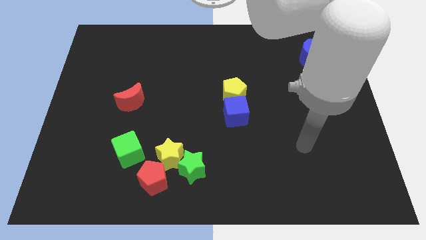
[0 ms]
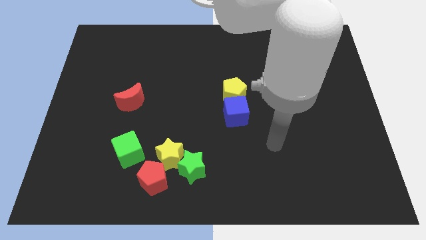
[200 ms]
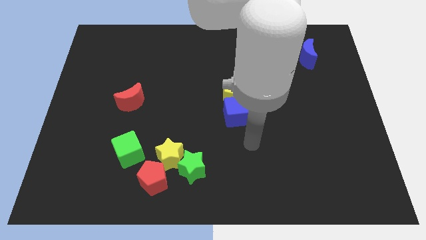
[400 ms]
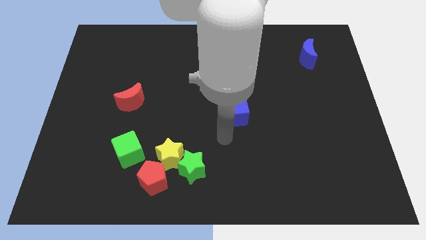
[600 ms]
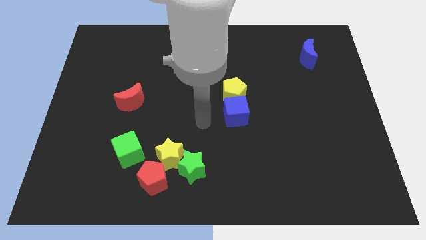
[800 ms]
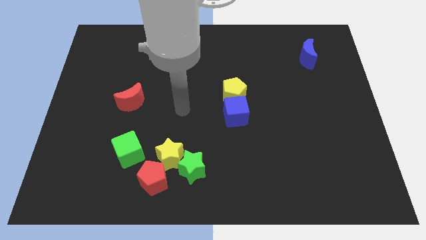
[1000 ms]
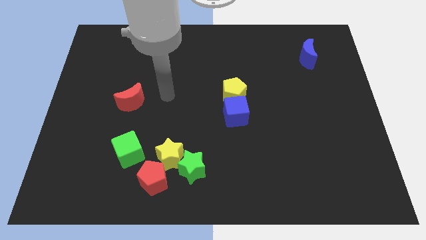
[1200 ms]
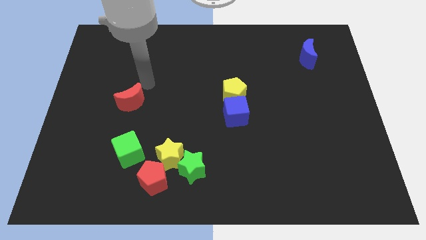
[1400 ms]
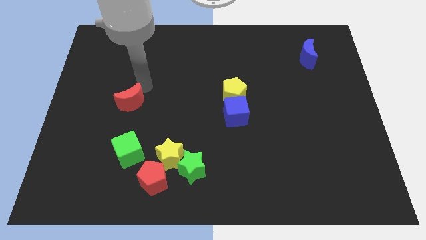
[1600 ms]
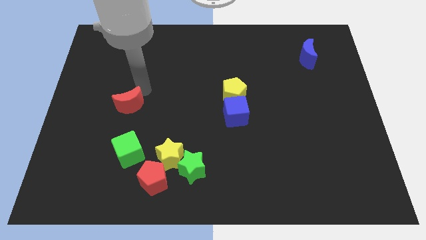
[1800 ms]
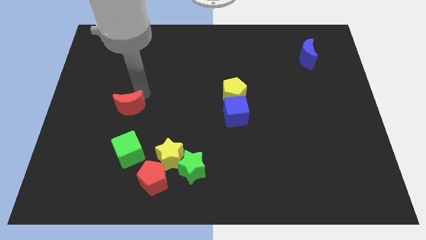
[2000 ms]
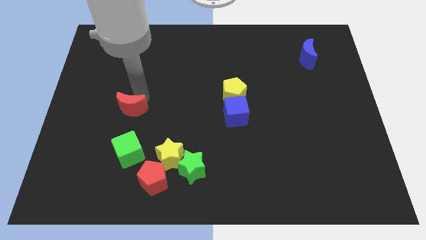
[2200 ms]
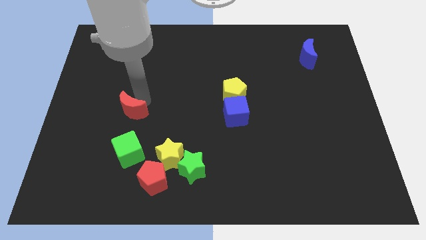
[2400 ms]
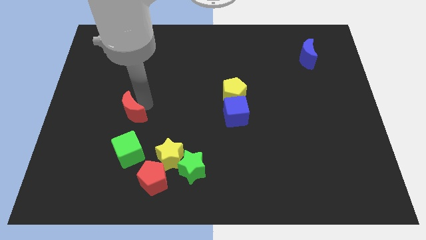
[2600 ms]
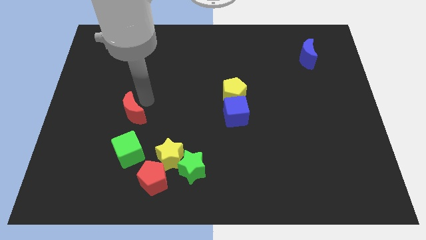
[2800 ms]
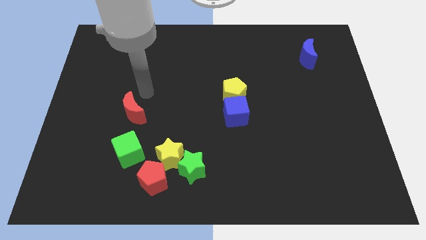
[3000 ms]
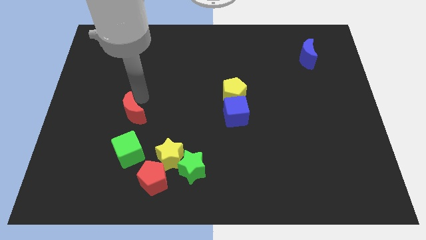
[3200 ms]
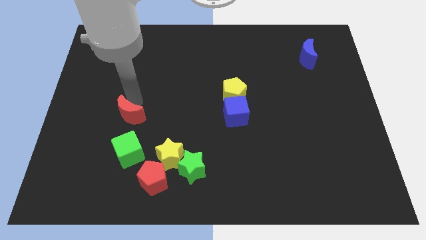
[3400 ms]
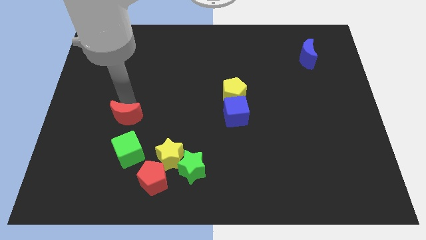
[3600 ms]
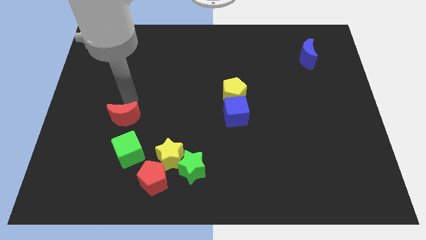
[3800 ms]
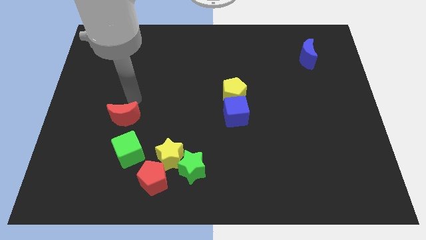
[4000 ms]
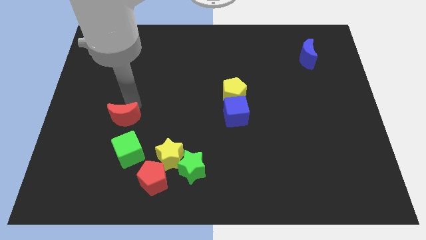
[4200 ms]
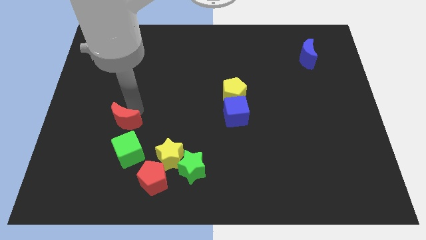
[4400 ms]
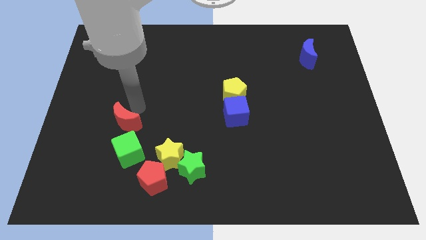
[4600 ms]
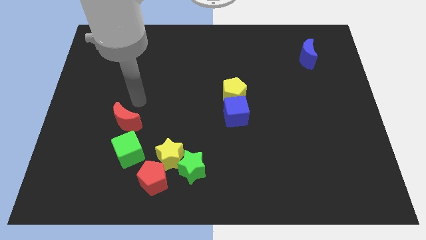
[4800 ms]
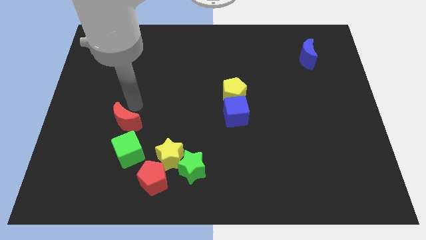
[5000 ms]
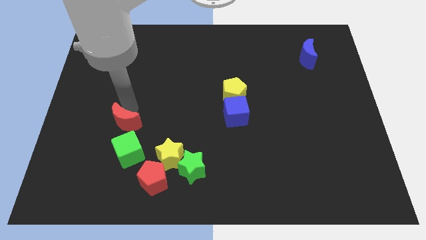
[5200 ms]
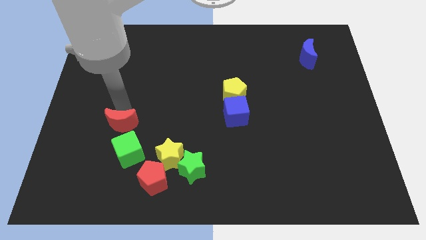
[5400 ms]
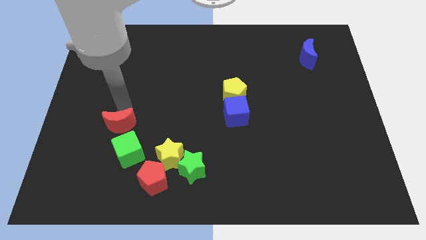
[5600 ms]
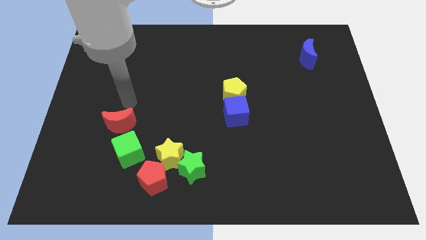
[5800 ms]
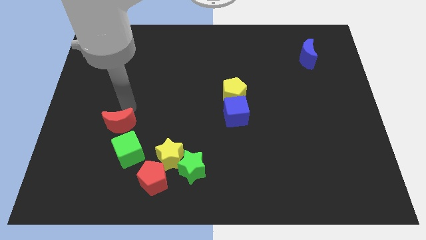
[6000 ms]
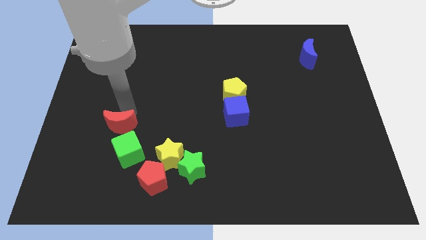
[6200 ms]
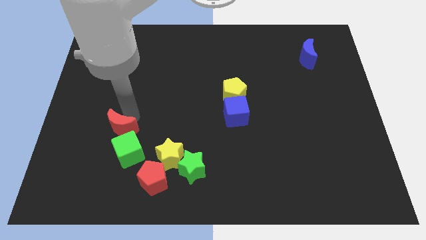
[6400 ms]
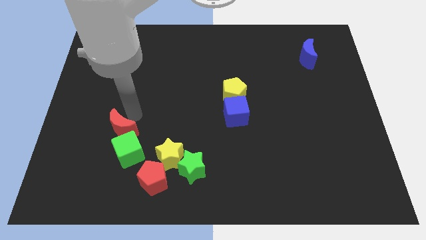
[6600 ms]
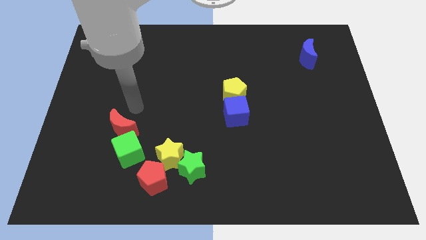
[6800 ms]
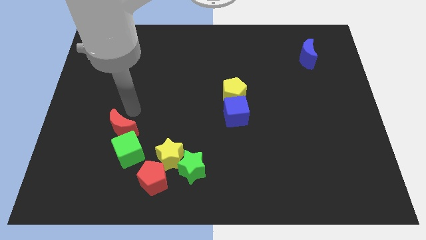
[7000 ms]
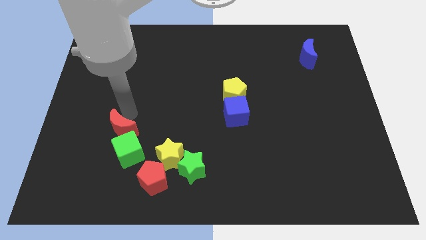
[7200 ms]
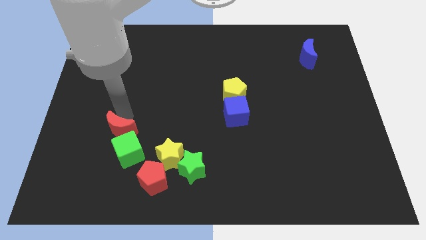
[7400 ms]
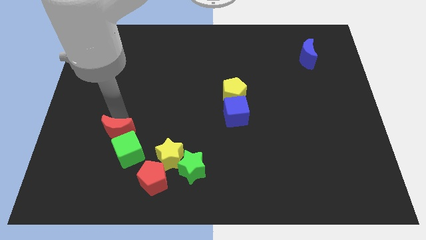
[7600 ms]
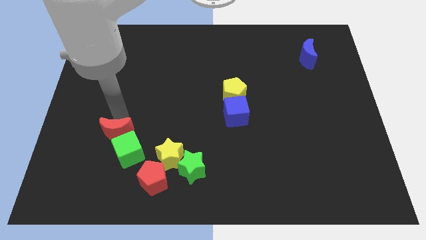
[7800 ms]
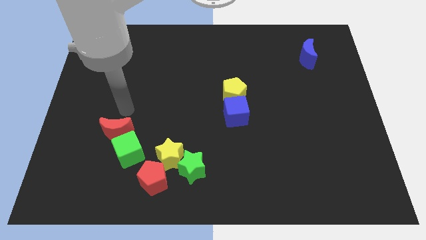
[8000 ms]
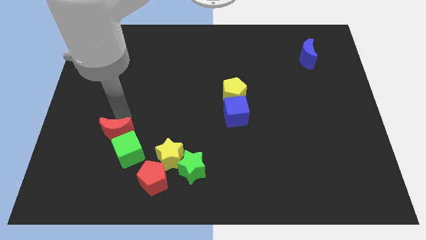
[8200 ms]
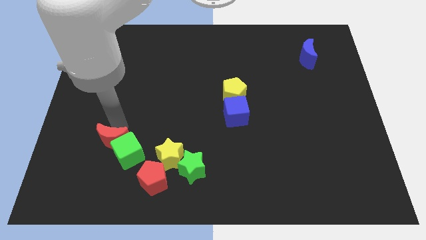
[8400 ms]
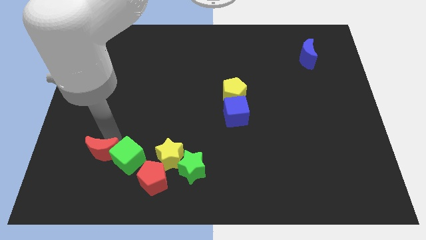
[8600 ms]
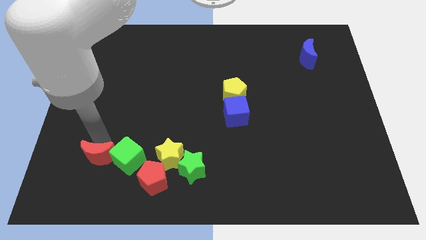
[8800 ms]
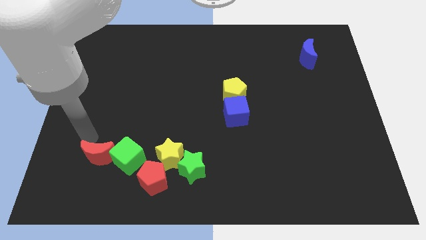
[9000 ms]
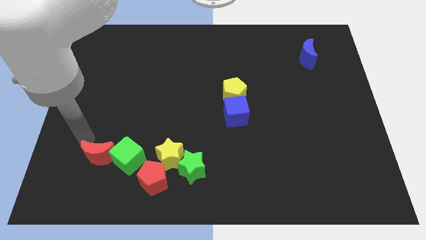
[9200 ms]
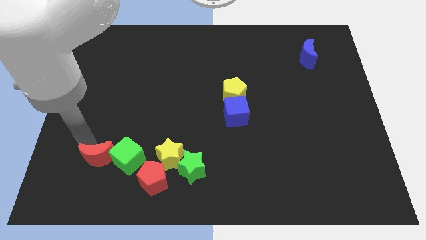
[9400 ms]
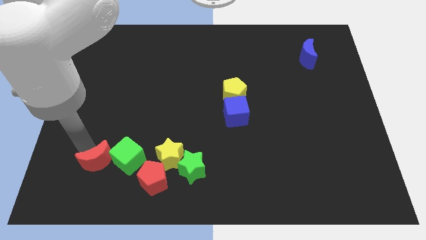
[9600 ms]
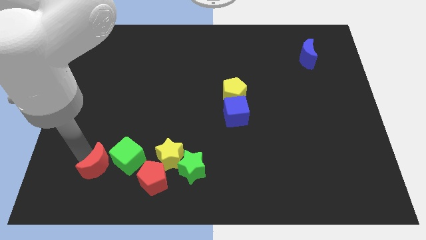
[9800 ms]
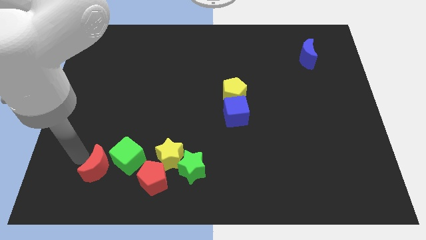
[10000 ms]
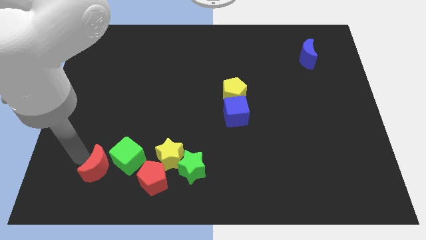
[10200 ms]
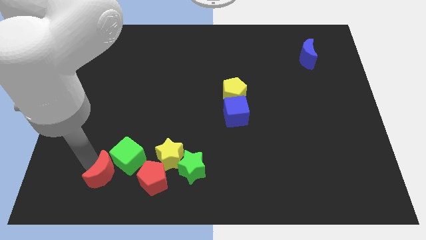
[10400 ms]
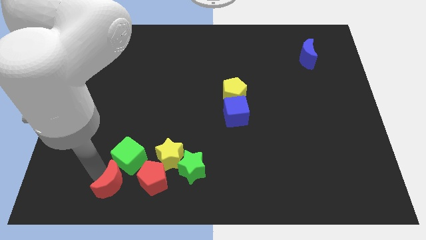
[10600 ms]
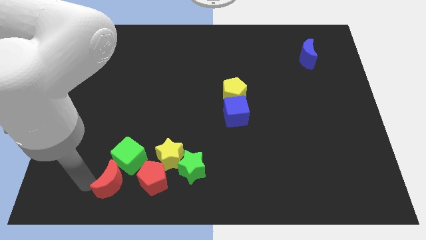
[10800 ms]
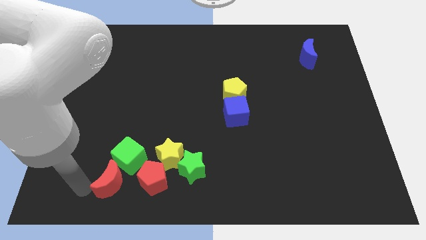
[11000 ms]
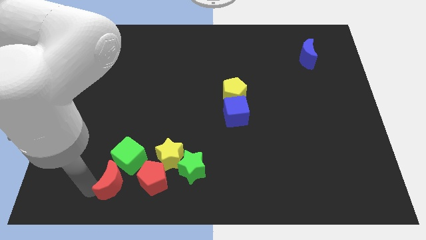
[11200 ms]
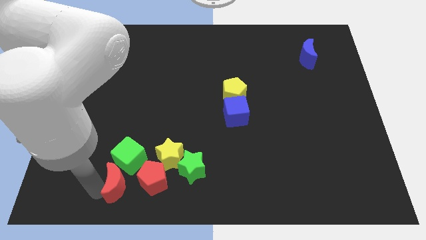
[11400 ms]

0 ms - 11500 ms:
push the red moon to the bottom left side of the yellow star
